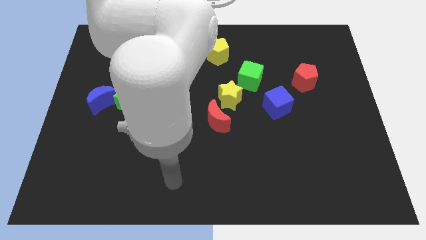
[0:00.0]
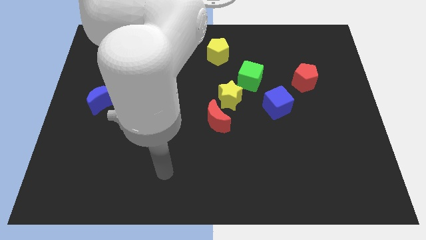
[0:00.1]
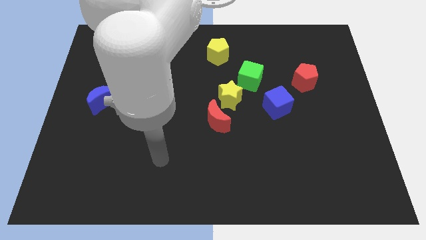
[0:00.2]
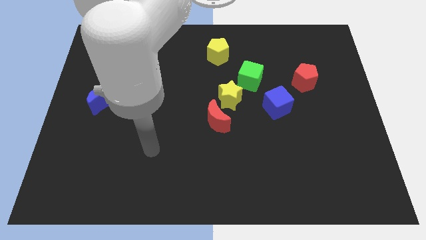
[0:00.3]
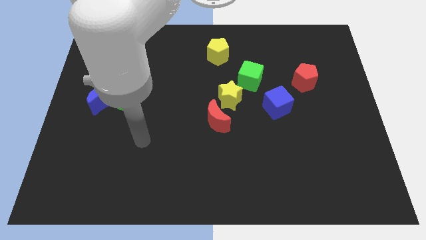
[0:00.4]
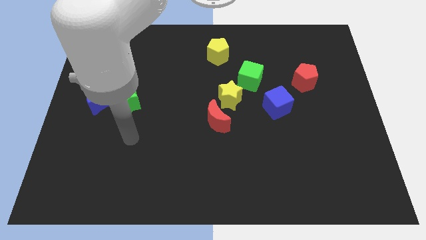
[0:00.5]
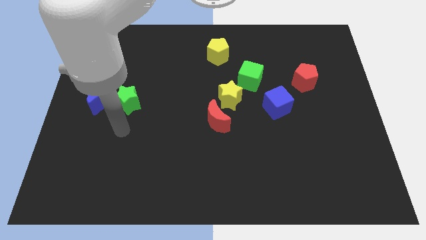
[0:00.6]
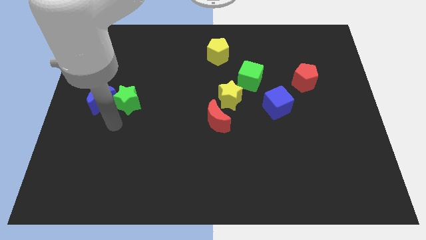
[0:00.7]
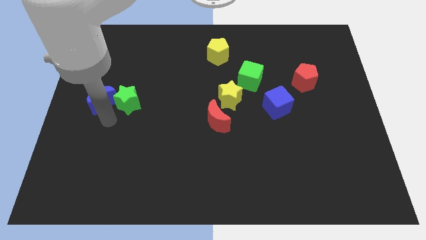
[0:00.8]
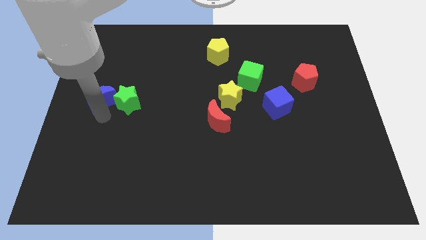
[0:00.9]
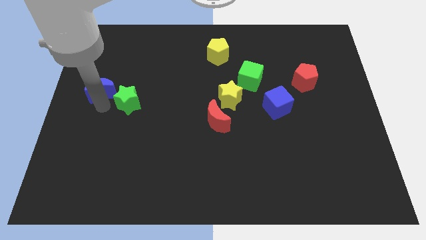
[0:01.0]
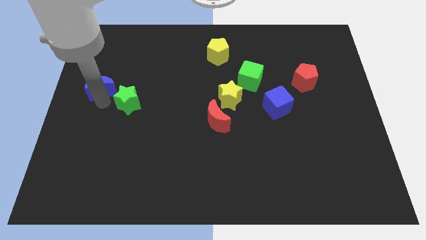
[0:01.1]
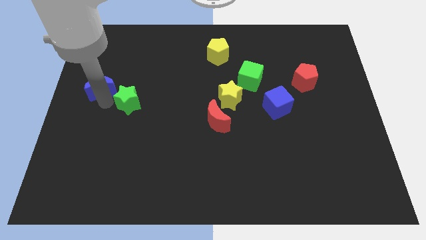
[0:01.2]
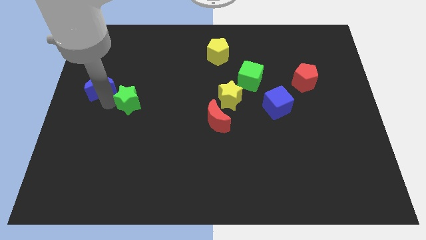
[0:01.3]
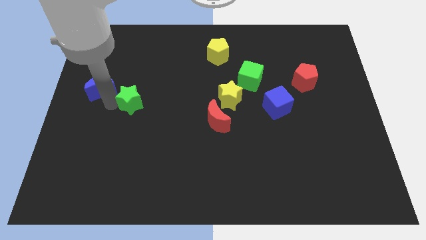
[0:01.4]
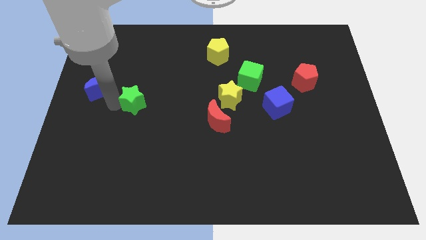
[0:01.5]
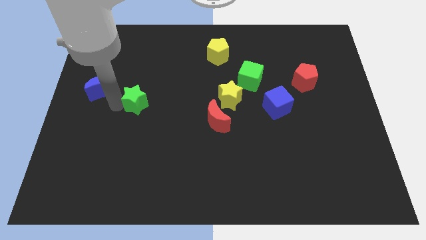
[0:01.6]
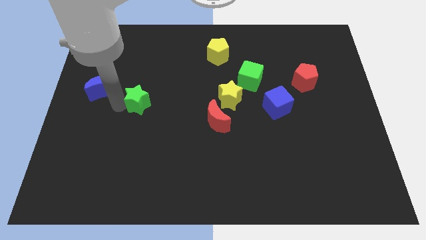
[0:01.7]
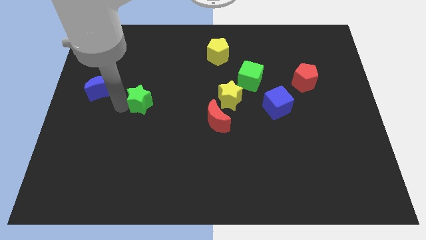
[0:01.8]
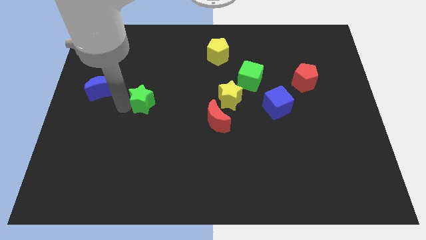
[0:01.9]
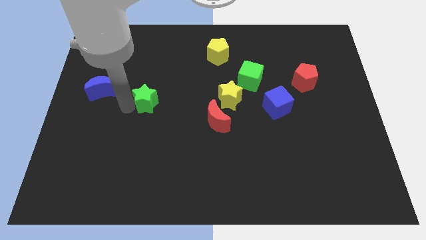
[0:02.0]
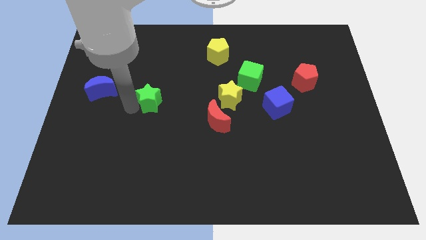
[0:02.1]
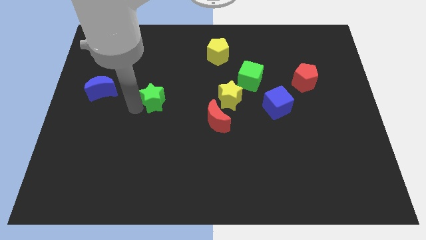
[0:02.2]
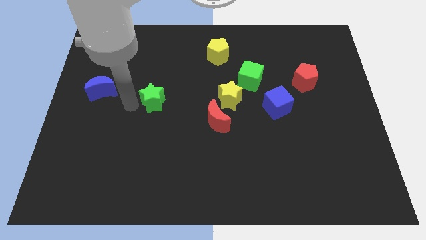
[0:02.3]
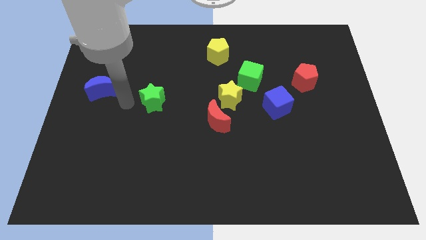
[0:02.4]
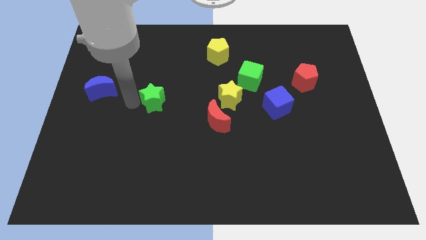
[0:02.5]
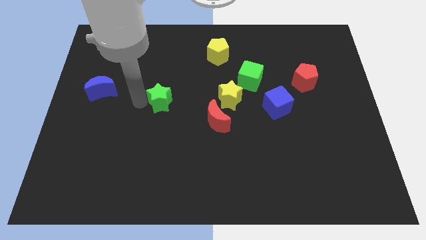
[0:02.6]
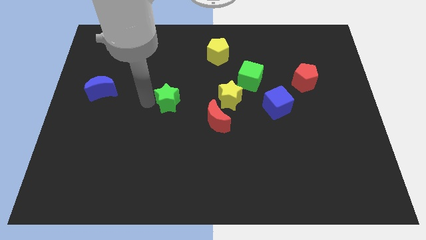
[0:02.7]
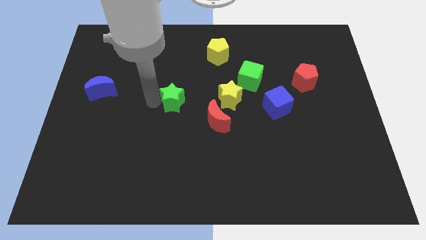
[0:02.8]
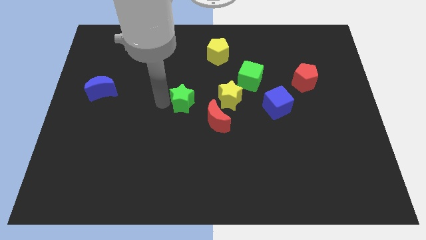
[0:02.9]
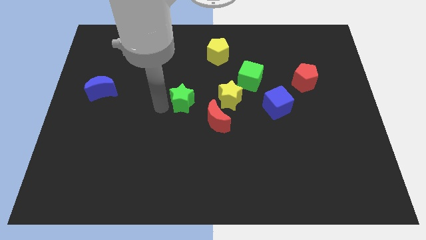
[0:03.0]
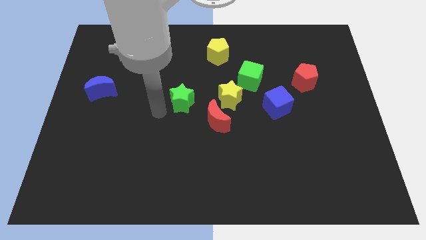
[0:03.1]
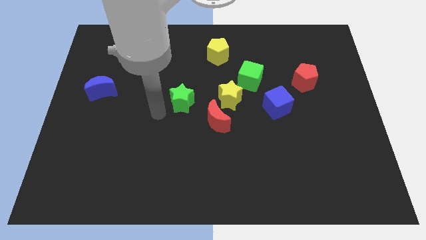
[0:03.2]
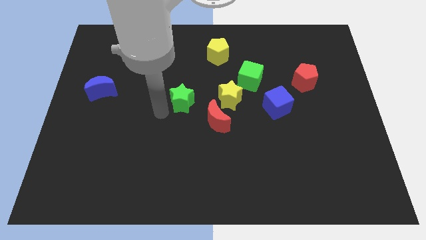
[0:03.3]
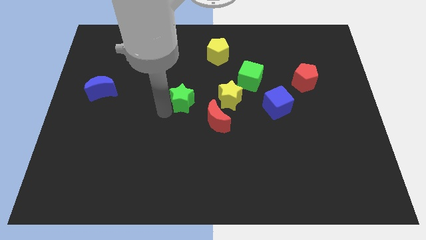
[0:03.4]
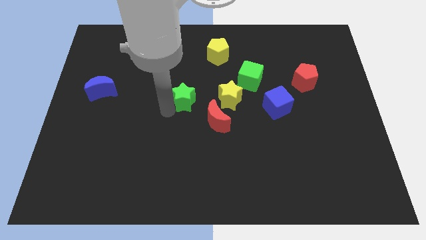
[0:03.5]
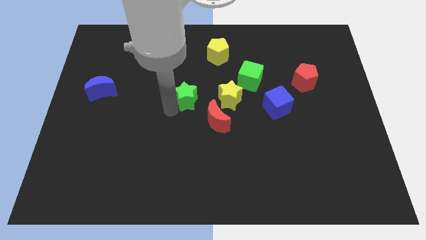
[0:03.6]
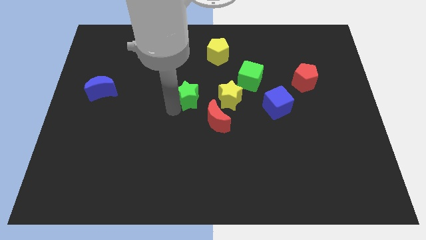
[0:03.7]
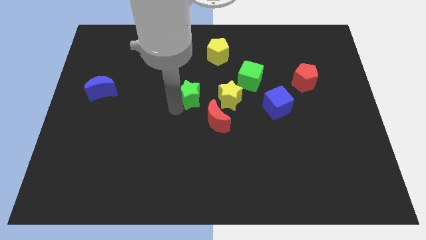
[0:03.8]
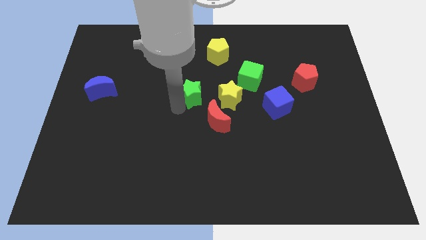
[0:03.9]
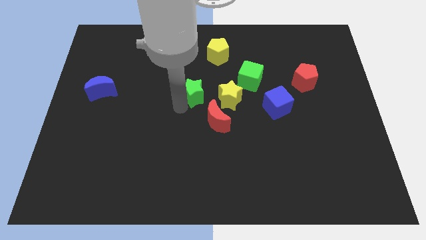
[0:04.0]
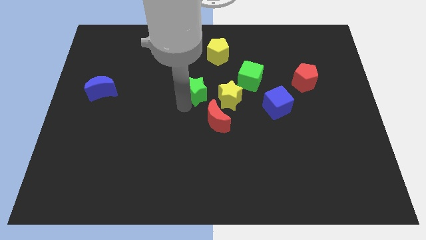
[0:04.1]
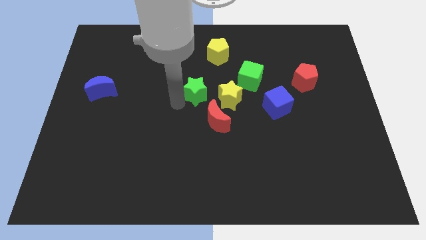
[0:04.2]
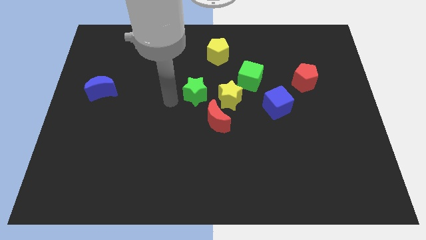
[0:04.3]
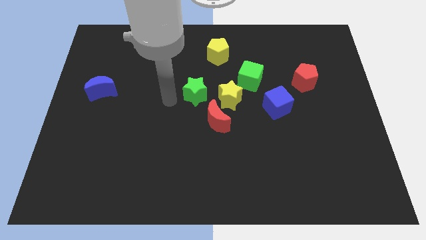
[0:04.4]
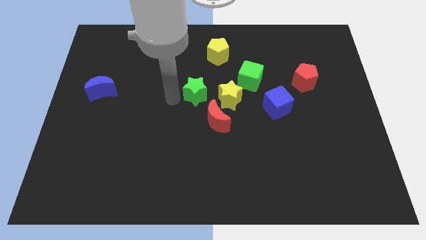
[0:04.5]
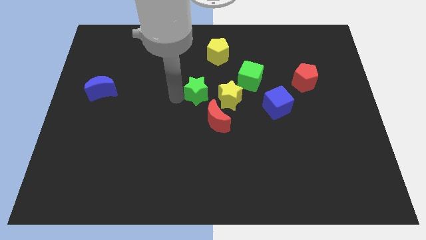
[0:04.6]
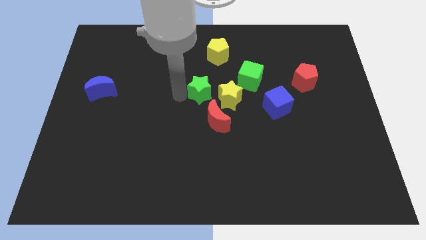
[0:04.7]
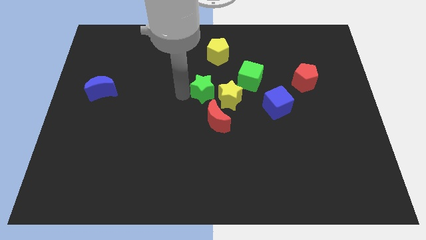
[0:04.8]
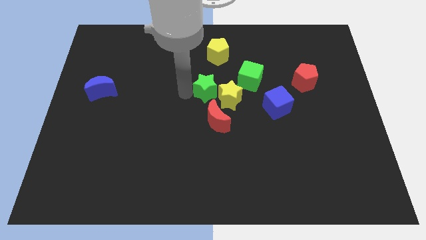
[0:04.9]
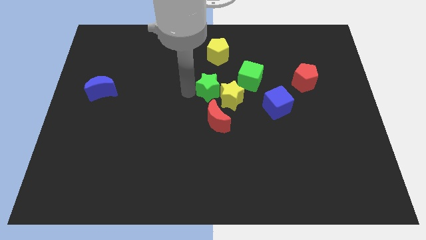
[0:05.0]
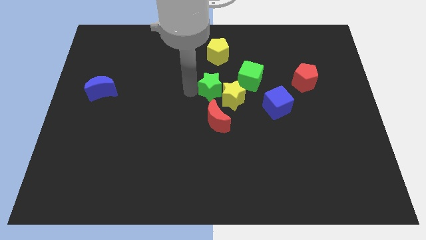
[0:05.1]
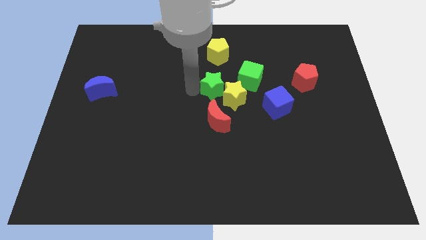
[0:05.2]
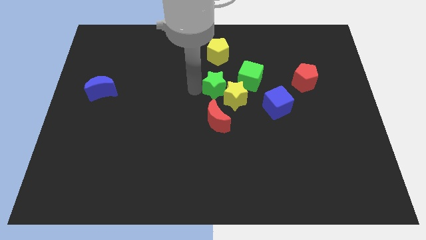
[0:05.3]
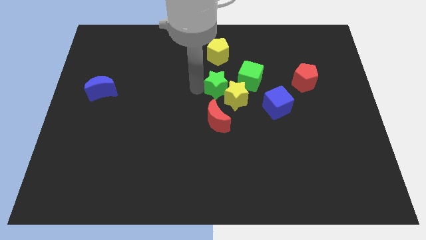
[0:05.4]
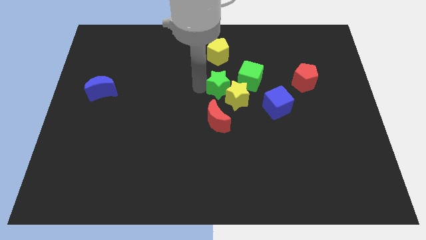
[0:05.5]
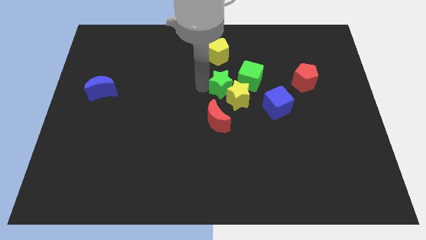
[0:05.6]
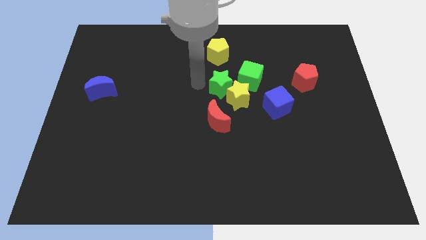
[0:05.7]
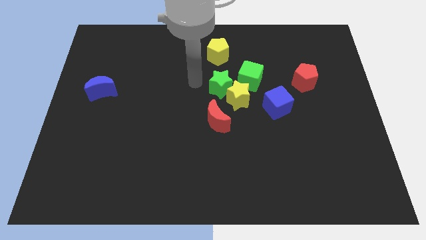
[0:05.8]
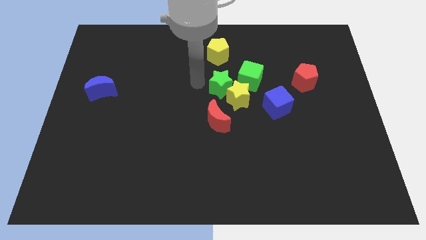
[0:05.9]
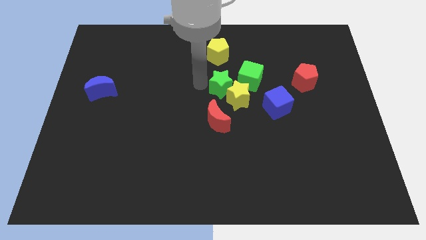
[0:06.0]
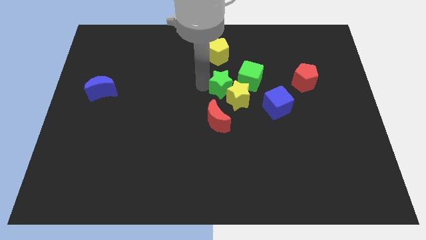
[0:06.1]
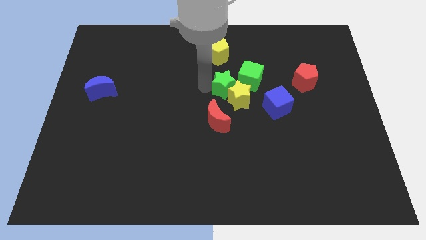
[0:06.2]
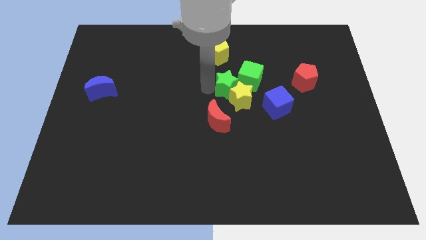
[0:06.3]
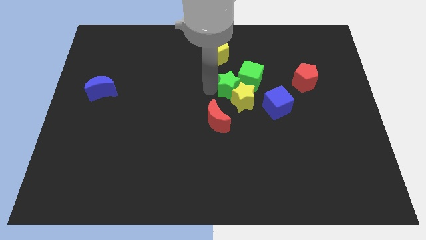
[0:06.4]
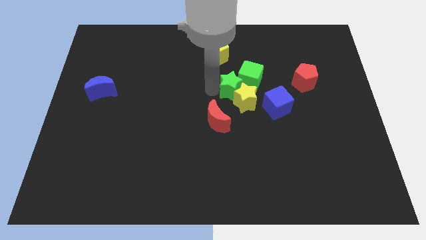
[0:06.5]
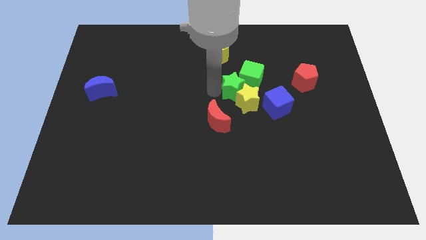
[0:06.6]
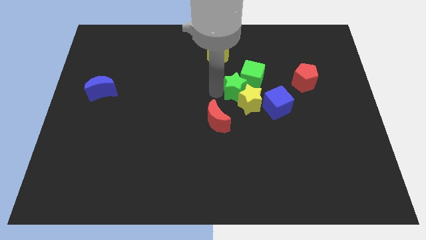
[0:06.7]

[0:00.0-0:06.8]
slide the green star below the green cube
